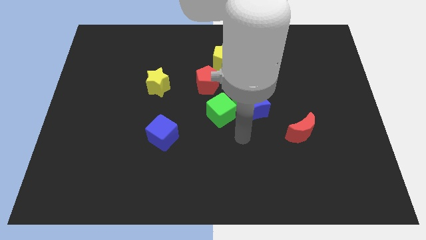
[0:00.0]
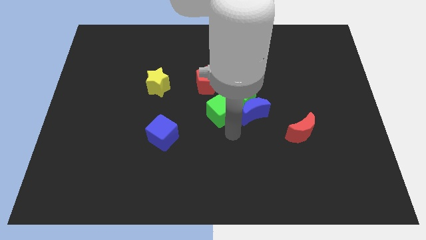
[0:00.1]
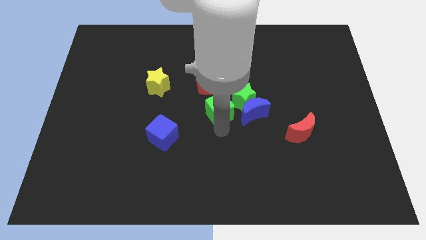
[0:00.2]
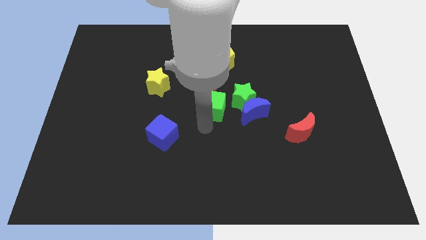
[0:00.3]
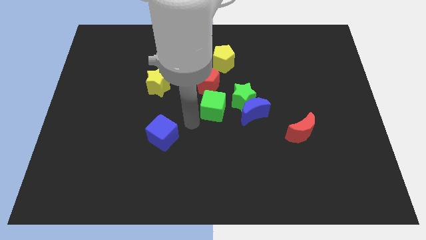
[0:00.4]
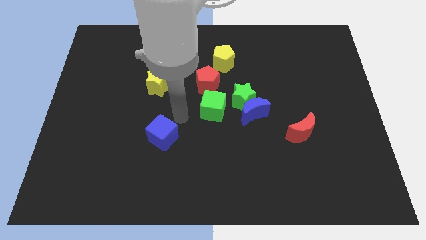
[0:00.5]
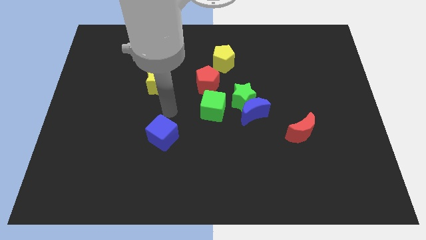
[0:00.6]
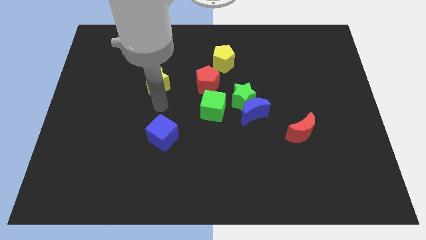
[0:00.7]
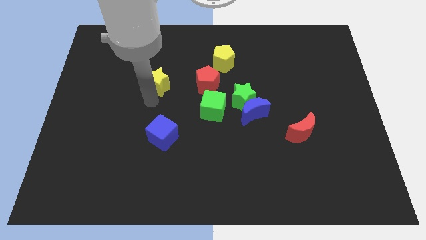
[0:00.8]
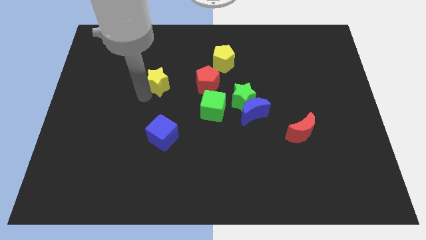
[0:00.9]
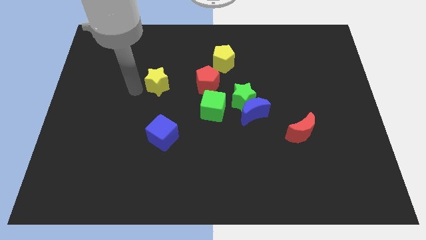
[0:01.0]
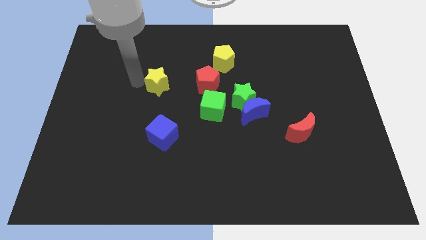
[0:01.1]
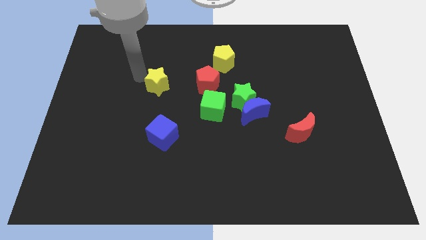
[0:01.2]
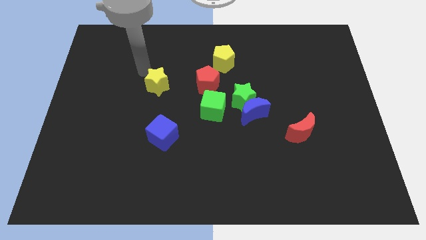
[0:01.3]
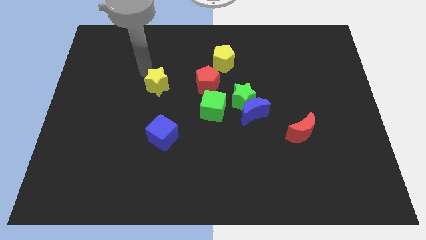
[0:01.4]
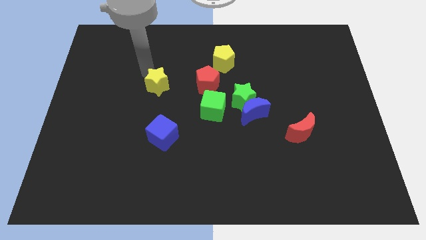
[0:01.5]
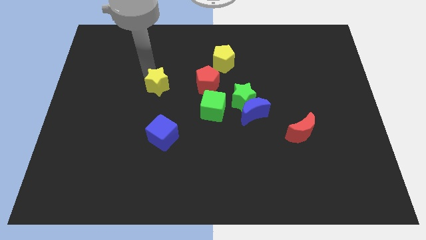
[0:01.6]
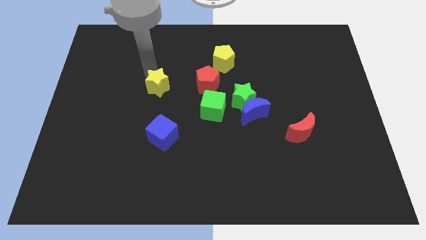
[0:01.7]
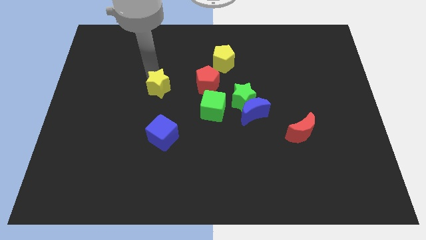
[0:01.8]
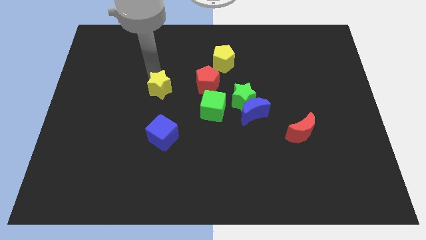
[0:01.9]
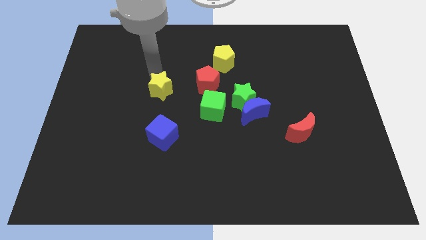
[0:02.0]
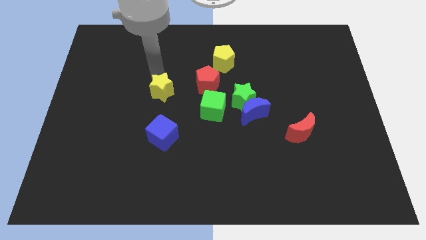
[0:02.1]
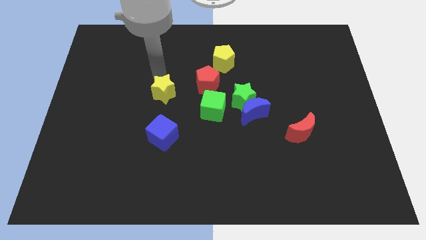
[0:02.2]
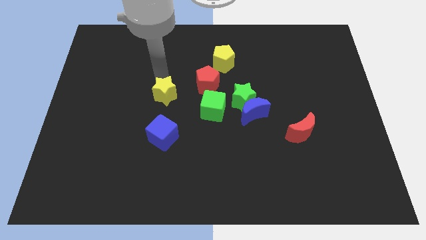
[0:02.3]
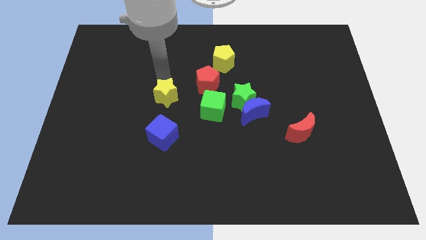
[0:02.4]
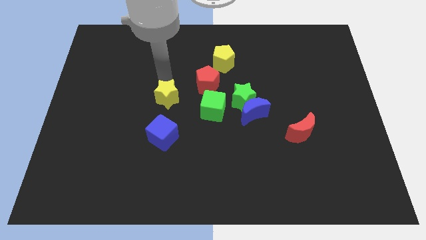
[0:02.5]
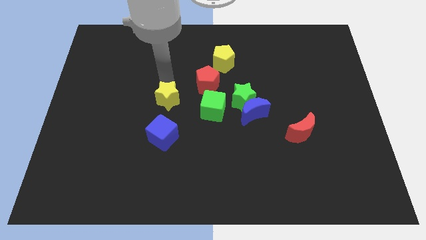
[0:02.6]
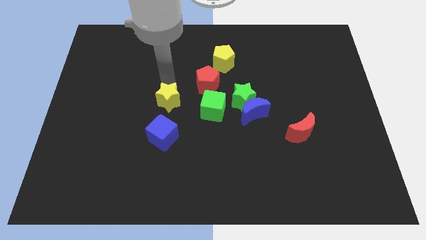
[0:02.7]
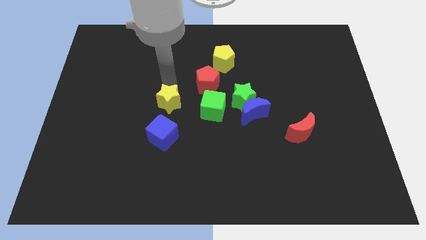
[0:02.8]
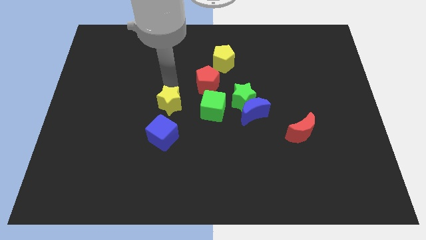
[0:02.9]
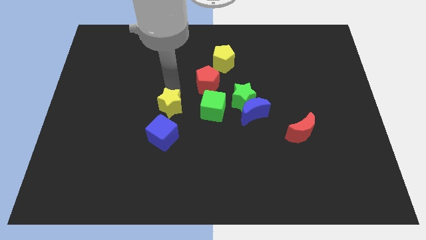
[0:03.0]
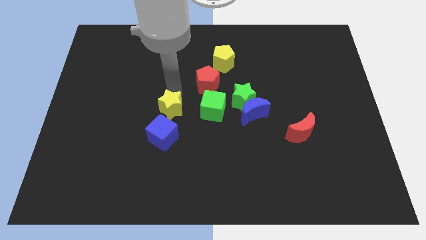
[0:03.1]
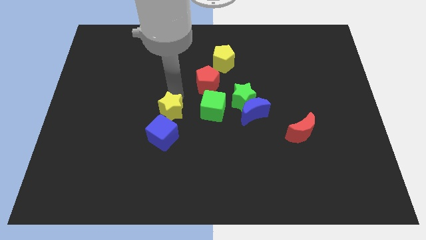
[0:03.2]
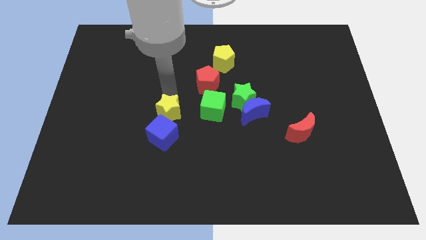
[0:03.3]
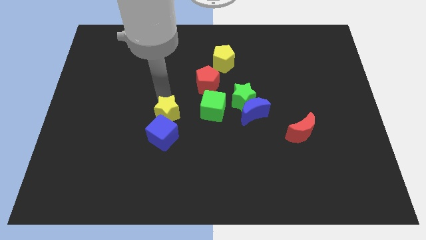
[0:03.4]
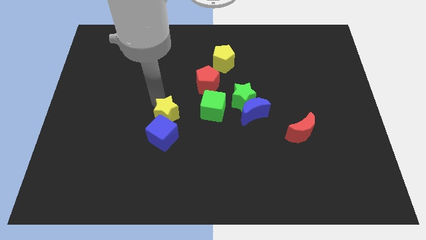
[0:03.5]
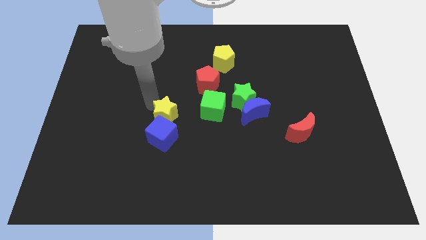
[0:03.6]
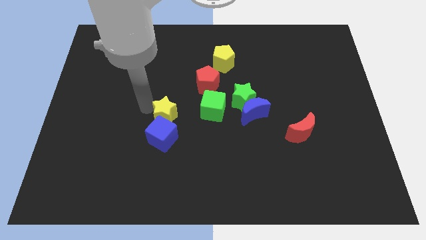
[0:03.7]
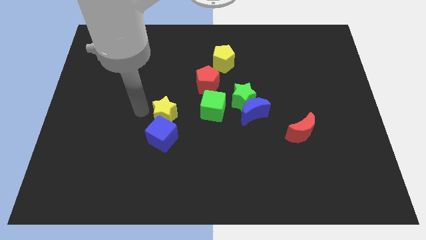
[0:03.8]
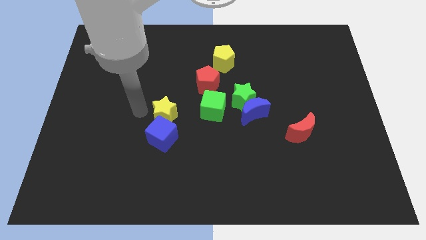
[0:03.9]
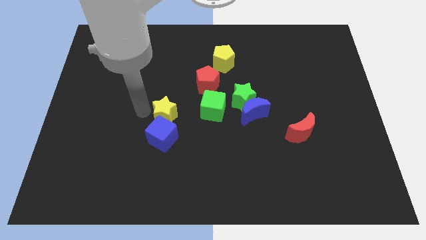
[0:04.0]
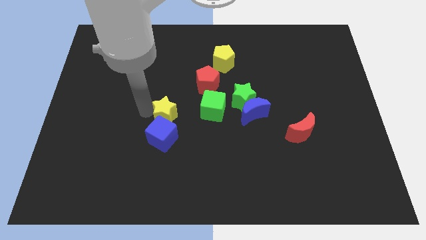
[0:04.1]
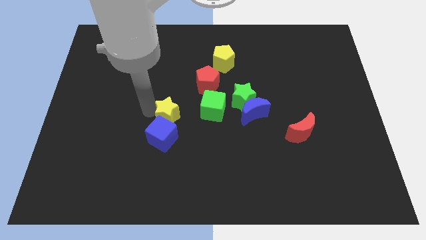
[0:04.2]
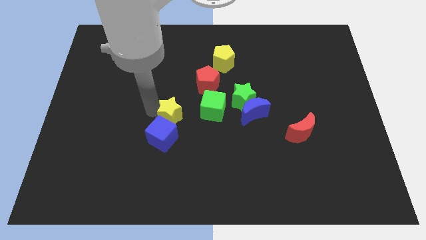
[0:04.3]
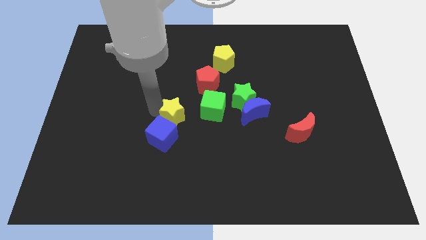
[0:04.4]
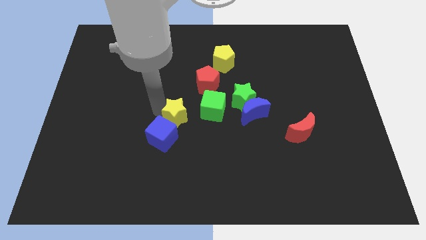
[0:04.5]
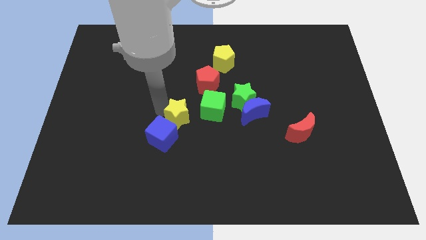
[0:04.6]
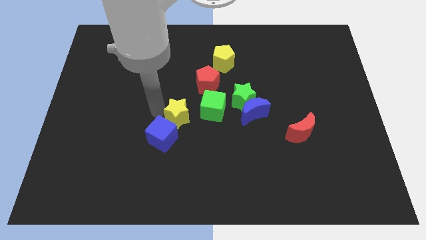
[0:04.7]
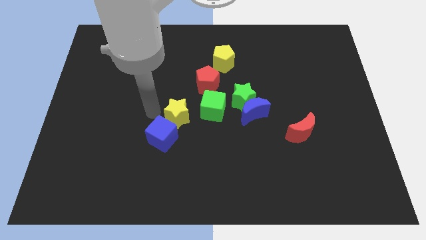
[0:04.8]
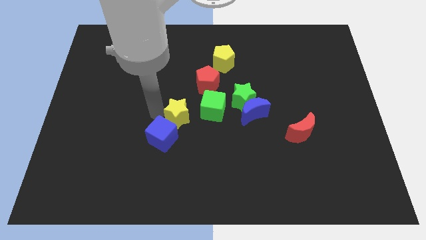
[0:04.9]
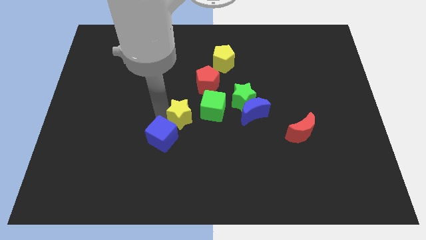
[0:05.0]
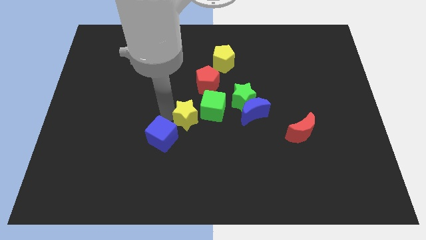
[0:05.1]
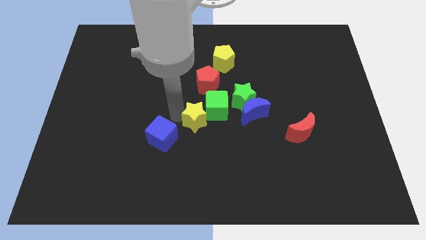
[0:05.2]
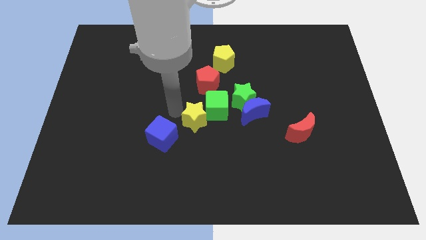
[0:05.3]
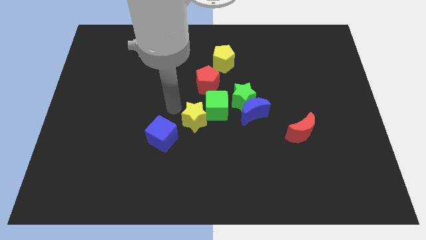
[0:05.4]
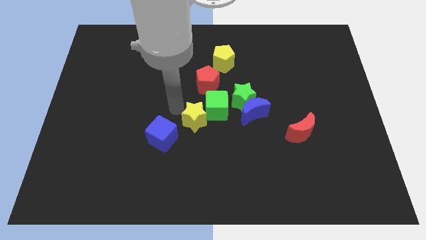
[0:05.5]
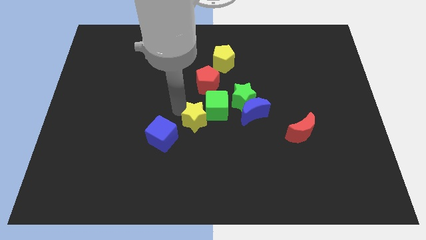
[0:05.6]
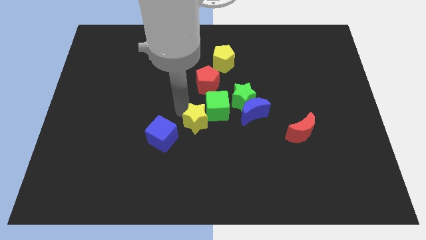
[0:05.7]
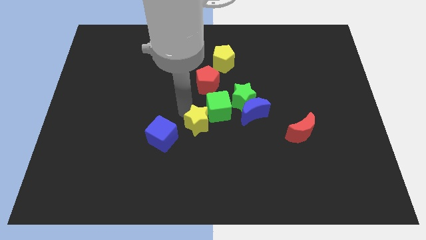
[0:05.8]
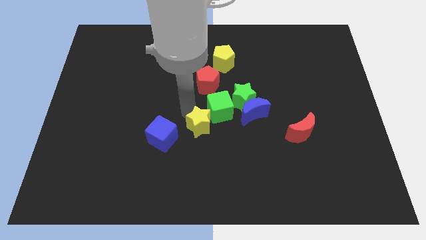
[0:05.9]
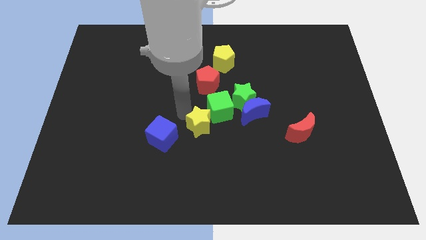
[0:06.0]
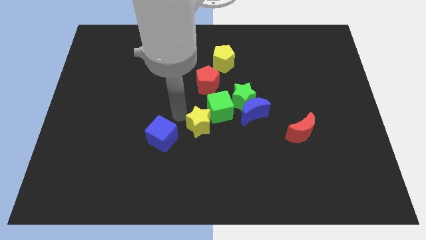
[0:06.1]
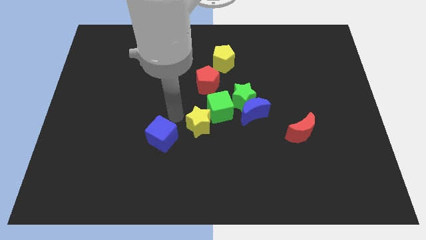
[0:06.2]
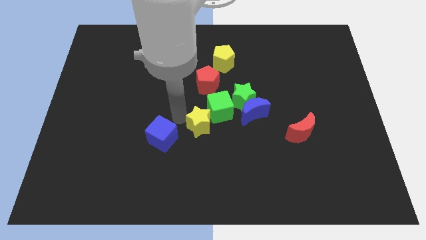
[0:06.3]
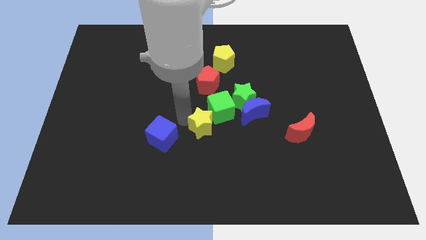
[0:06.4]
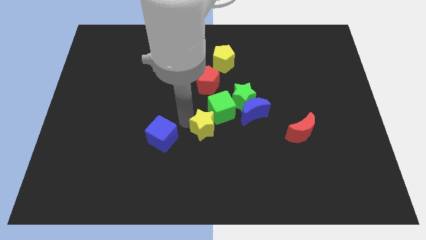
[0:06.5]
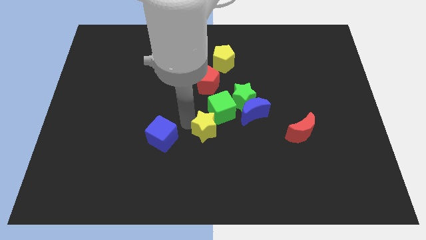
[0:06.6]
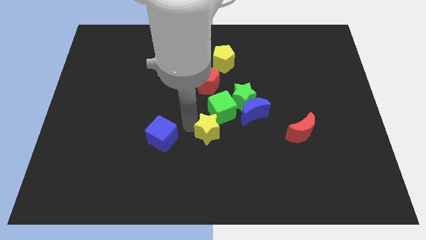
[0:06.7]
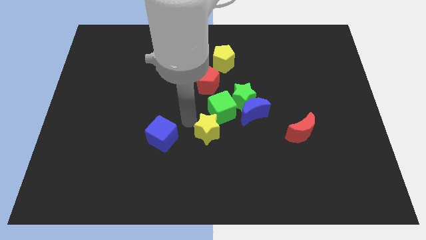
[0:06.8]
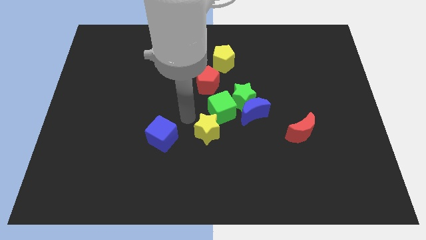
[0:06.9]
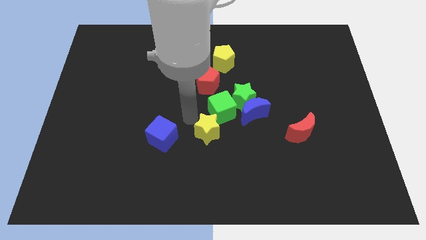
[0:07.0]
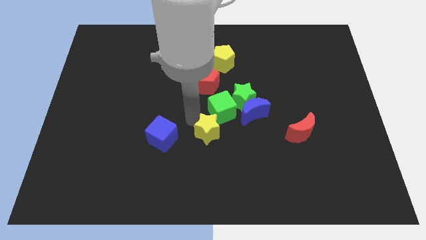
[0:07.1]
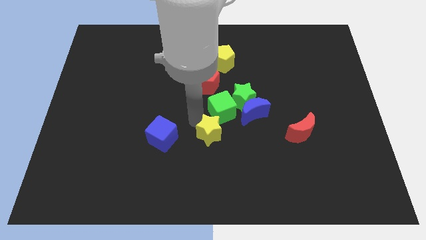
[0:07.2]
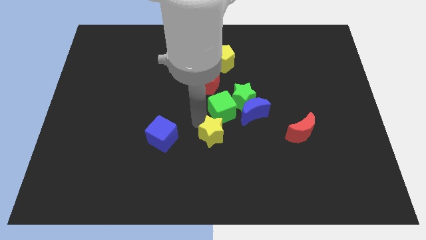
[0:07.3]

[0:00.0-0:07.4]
slide the yellow star diagonally downwards and to the right
